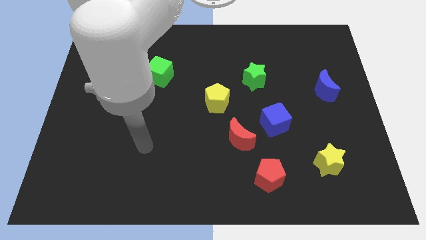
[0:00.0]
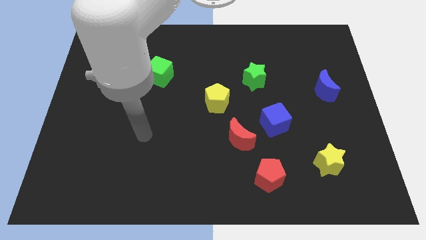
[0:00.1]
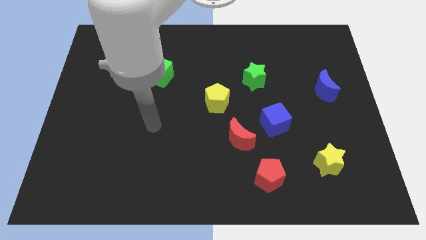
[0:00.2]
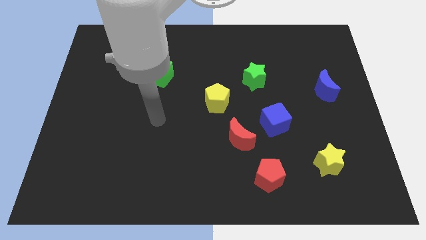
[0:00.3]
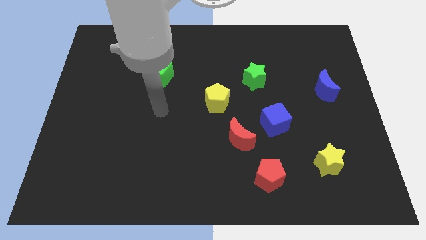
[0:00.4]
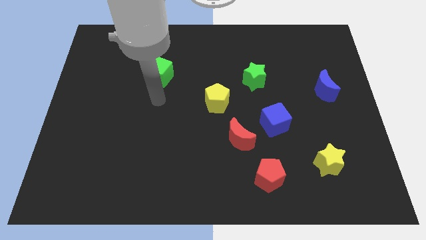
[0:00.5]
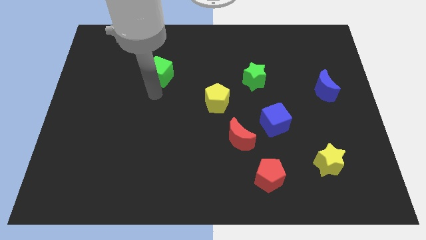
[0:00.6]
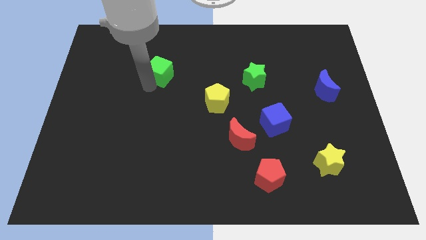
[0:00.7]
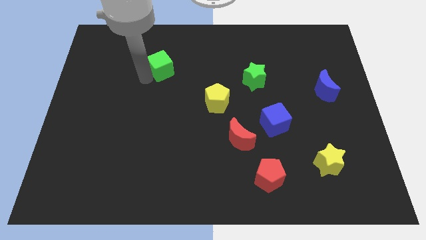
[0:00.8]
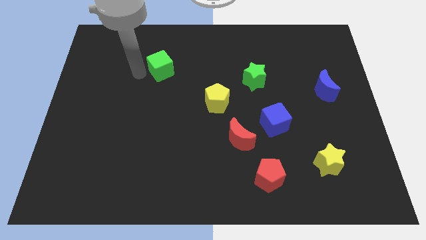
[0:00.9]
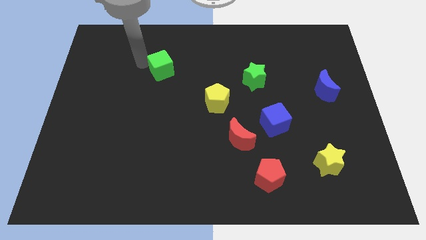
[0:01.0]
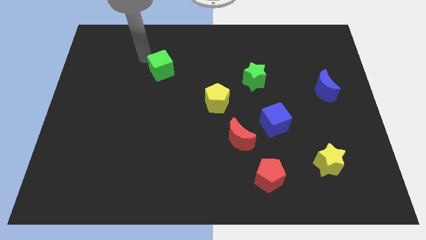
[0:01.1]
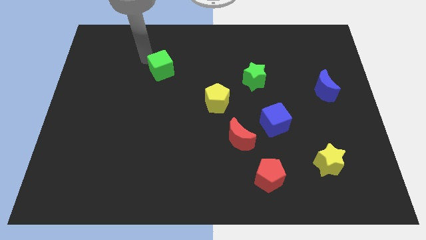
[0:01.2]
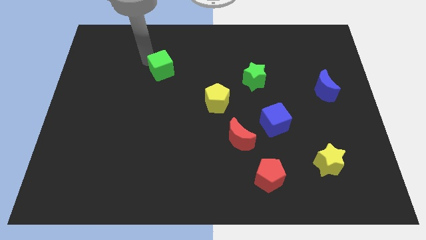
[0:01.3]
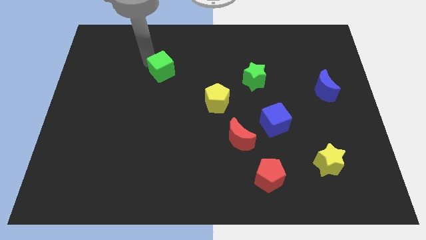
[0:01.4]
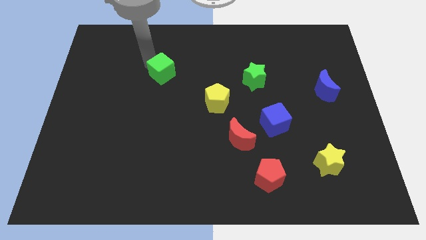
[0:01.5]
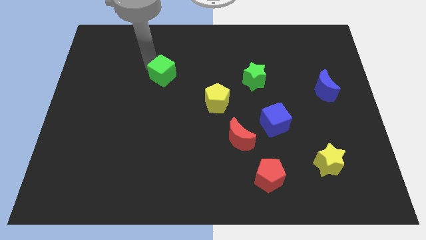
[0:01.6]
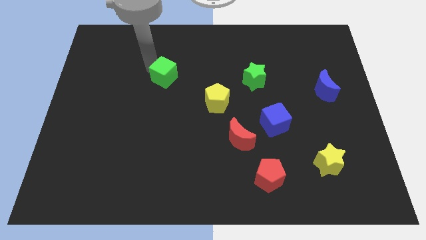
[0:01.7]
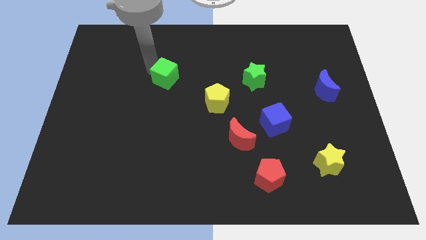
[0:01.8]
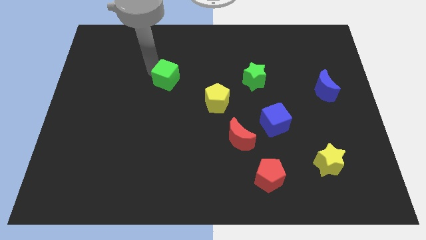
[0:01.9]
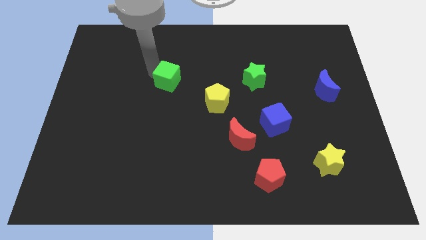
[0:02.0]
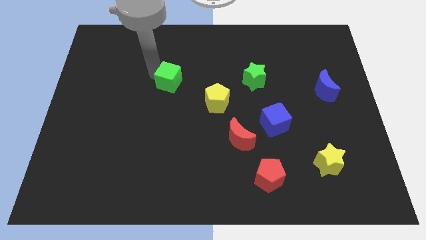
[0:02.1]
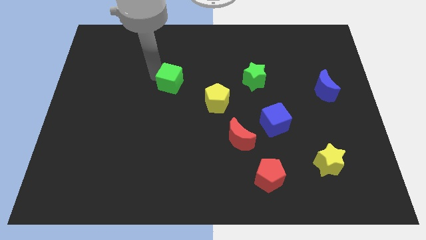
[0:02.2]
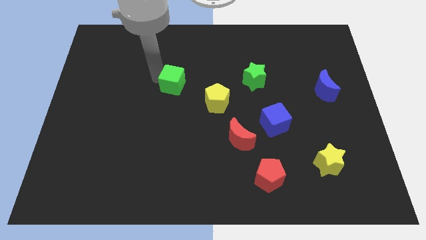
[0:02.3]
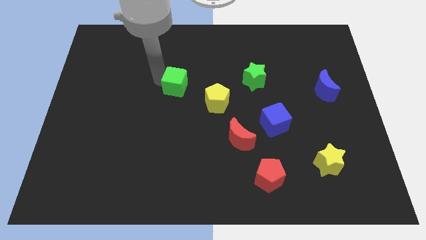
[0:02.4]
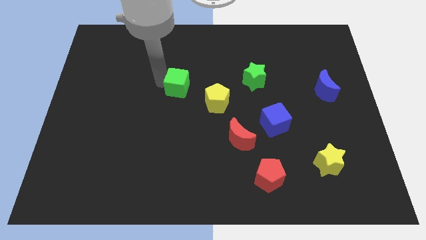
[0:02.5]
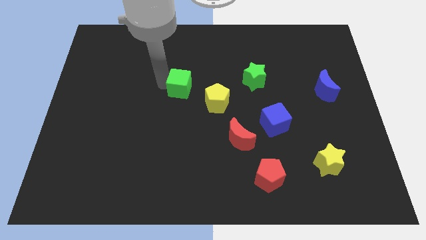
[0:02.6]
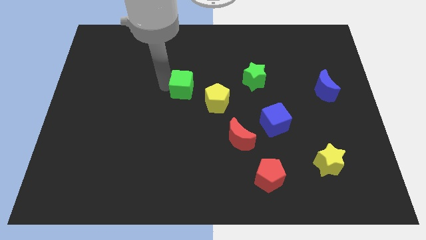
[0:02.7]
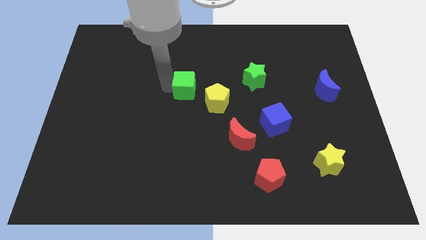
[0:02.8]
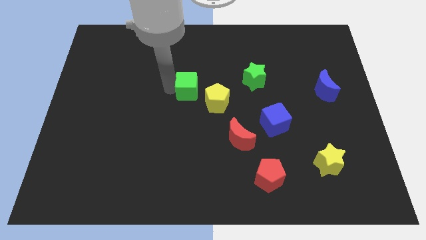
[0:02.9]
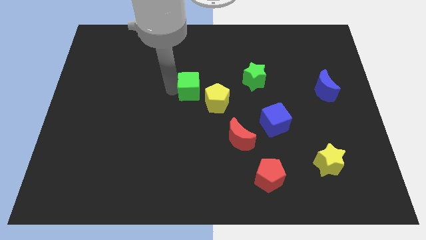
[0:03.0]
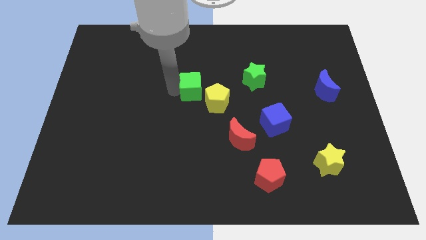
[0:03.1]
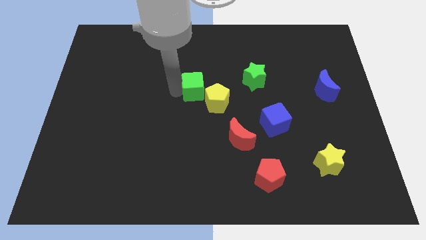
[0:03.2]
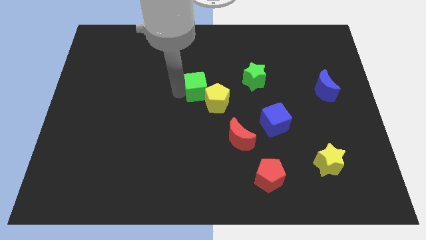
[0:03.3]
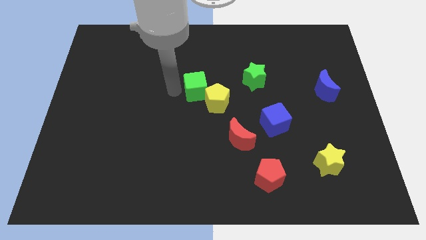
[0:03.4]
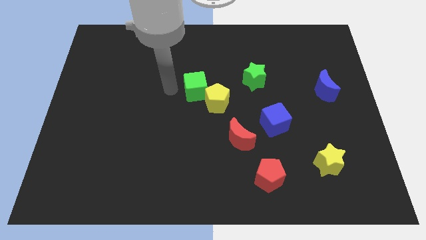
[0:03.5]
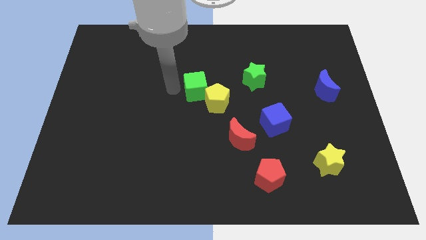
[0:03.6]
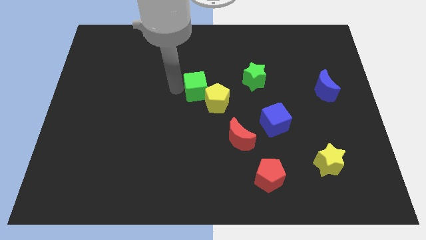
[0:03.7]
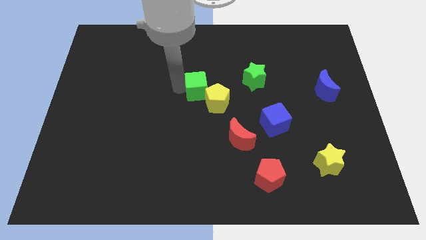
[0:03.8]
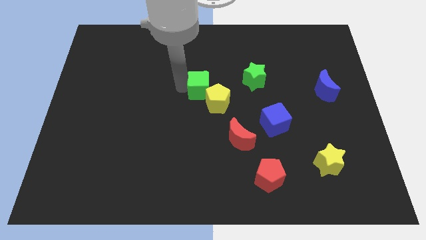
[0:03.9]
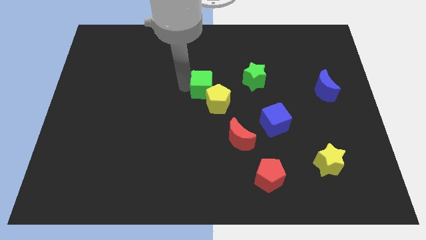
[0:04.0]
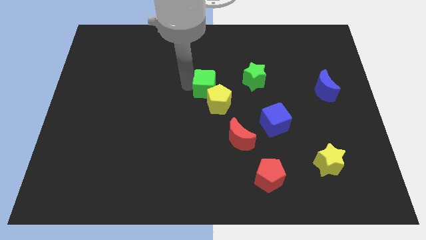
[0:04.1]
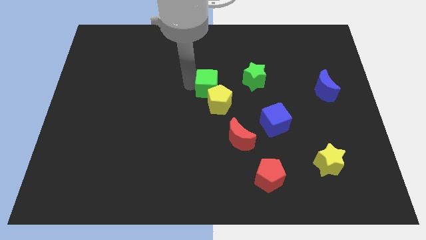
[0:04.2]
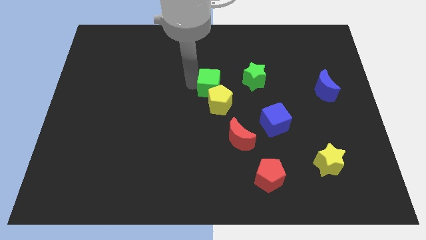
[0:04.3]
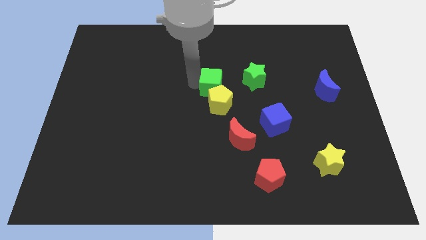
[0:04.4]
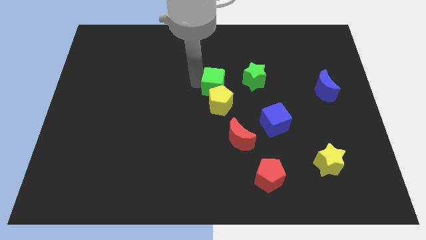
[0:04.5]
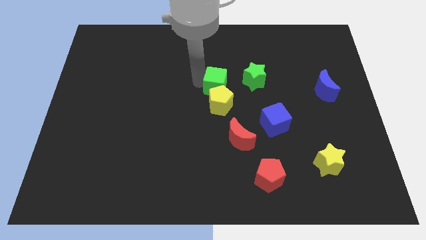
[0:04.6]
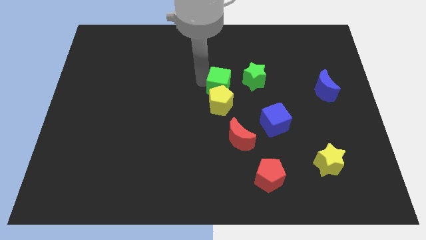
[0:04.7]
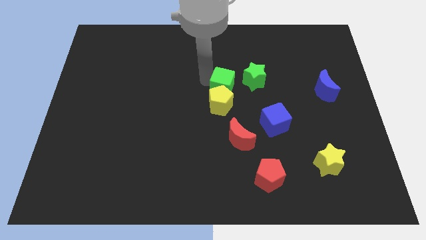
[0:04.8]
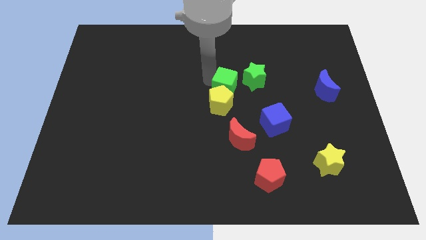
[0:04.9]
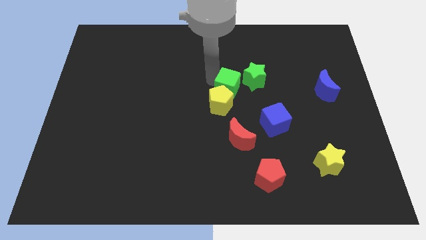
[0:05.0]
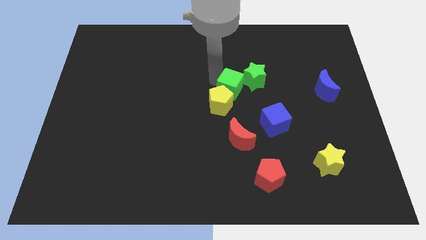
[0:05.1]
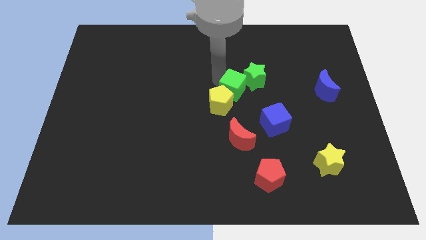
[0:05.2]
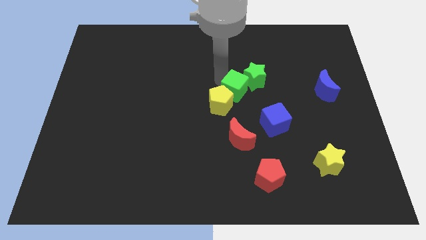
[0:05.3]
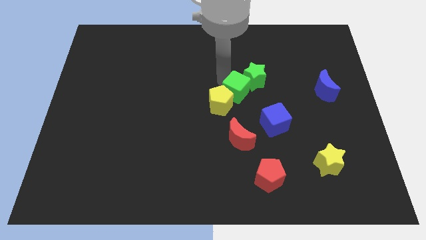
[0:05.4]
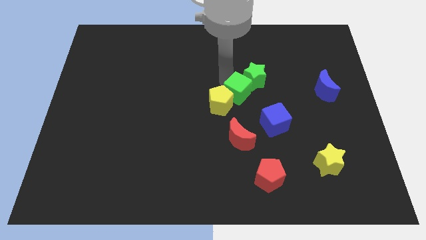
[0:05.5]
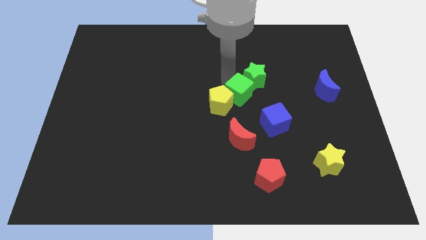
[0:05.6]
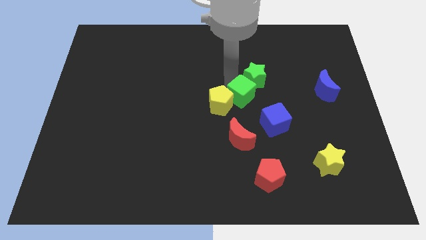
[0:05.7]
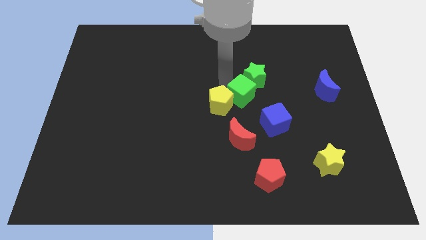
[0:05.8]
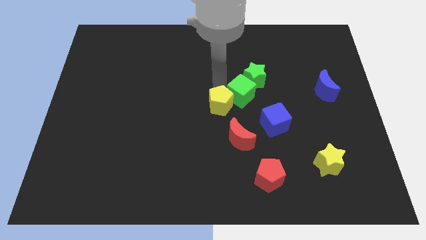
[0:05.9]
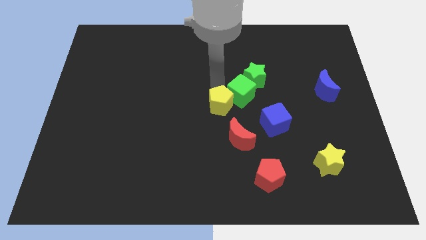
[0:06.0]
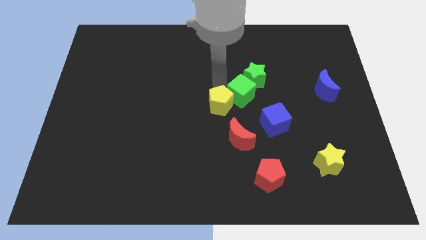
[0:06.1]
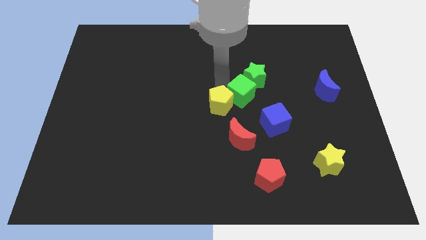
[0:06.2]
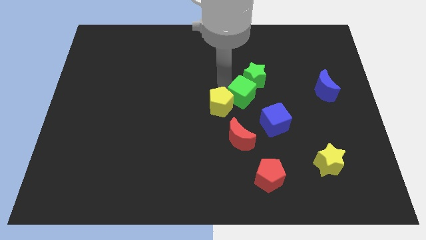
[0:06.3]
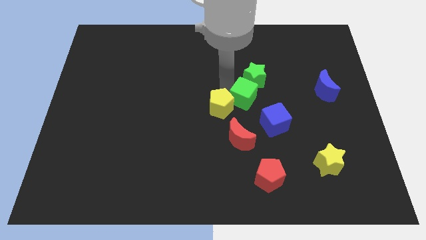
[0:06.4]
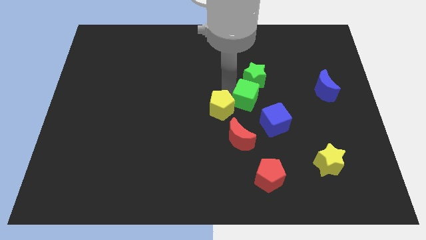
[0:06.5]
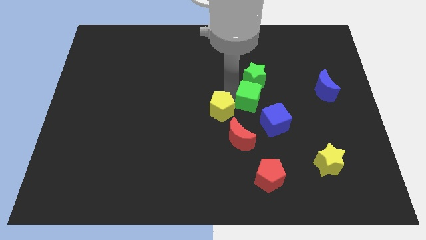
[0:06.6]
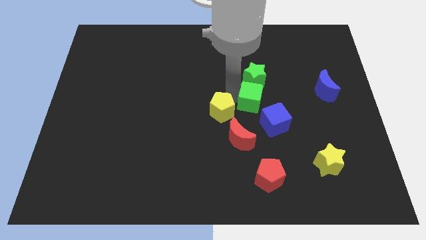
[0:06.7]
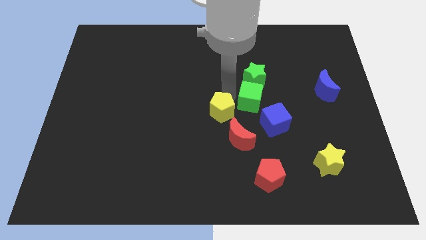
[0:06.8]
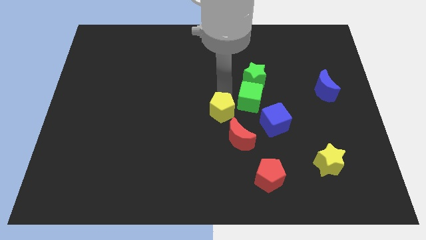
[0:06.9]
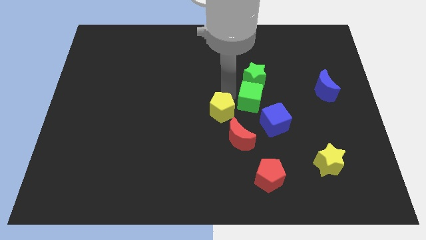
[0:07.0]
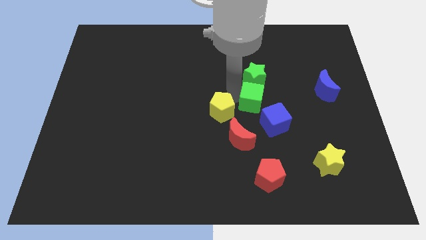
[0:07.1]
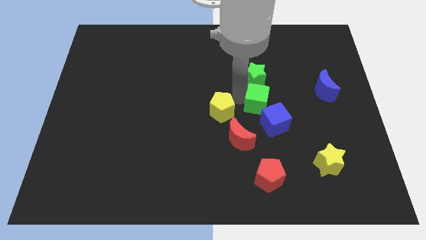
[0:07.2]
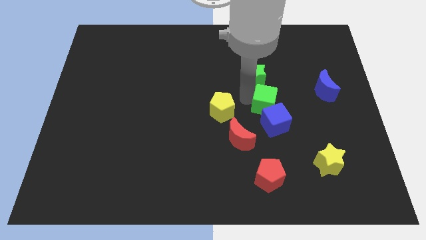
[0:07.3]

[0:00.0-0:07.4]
push the green cube close to the blue cube
